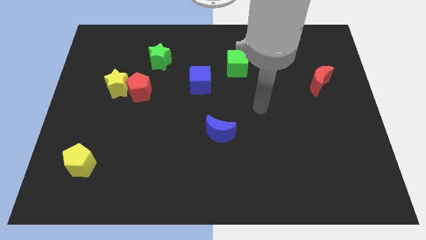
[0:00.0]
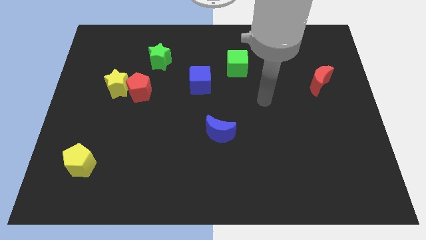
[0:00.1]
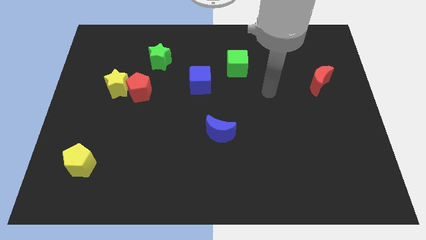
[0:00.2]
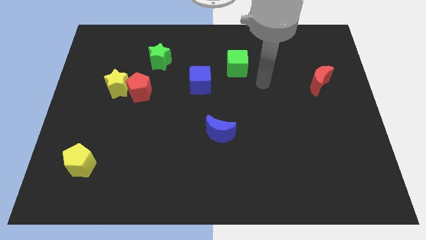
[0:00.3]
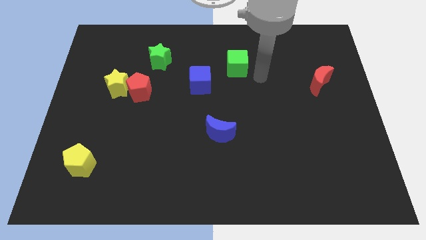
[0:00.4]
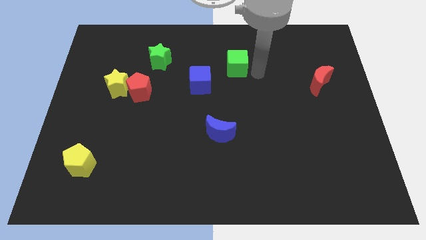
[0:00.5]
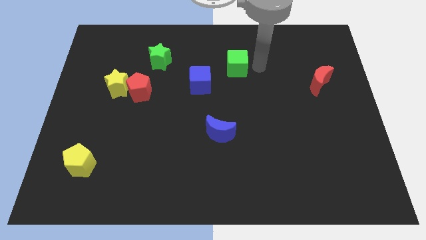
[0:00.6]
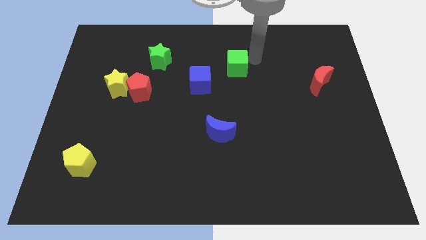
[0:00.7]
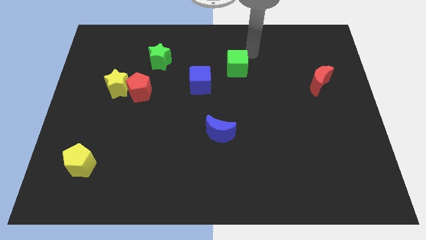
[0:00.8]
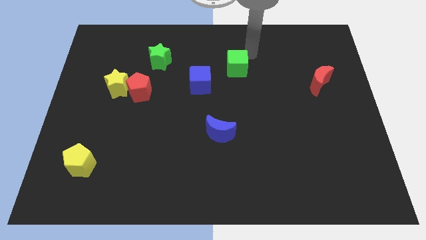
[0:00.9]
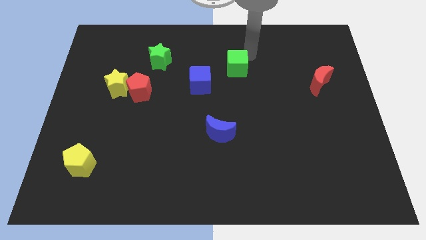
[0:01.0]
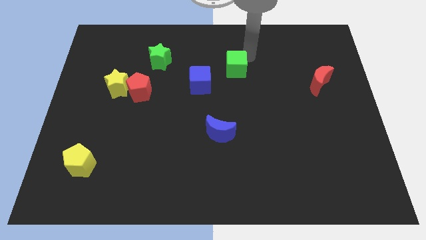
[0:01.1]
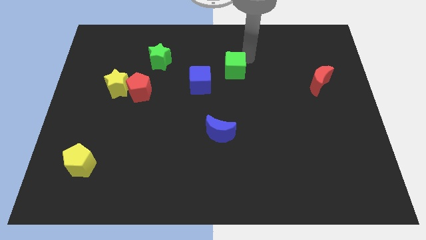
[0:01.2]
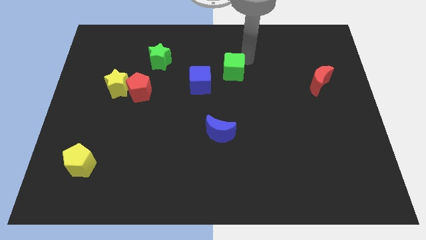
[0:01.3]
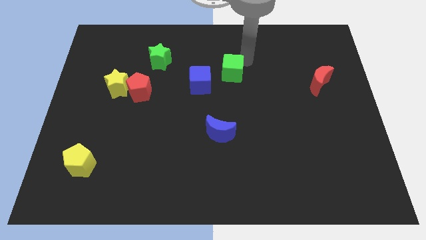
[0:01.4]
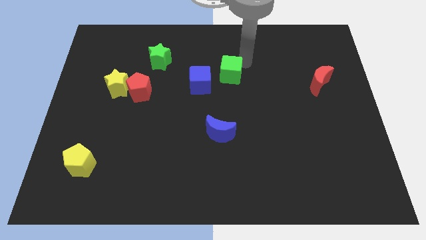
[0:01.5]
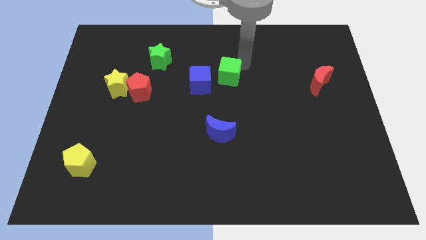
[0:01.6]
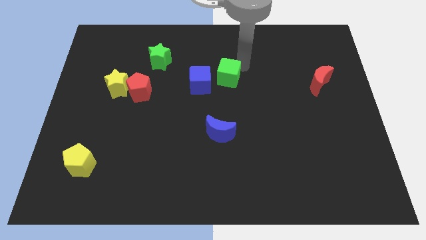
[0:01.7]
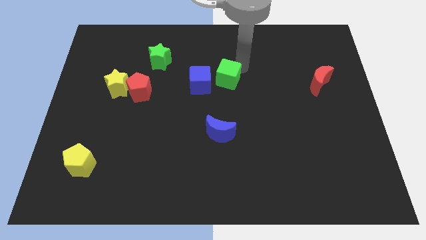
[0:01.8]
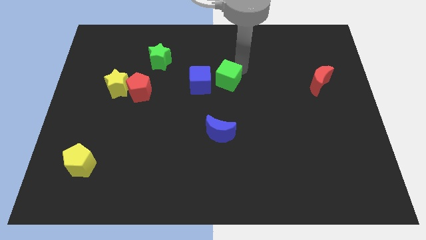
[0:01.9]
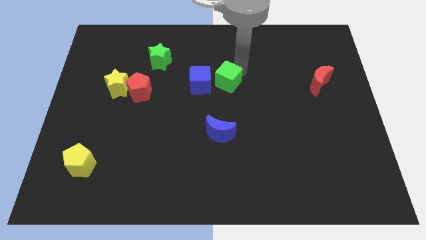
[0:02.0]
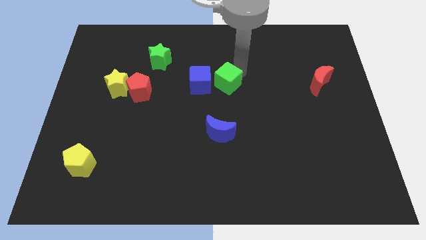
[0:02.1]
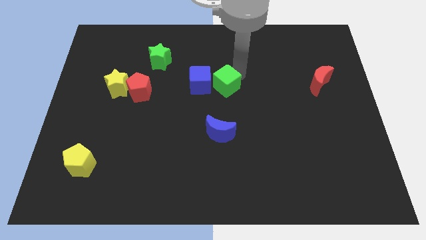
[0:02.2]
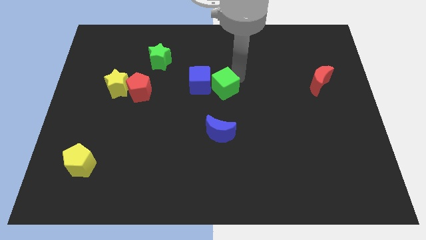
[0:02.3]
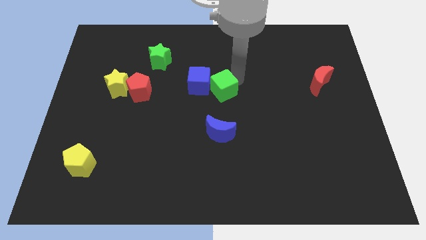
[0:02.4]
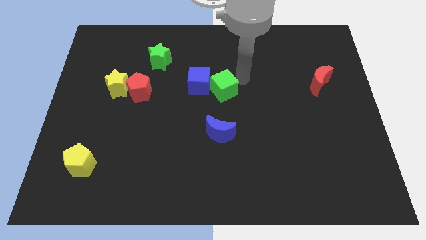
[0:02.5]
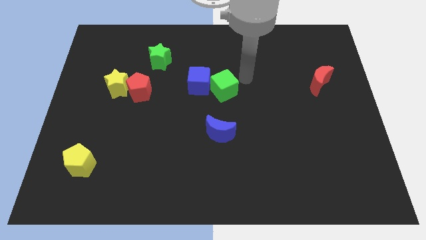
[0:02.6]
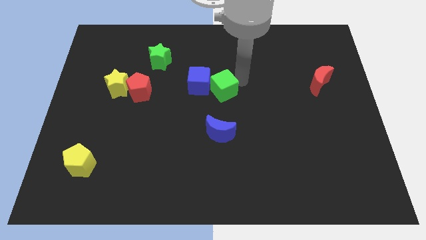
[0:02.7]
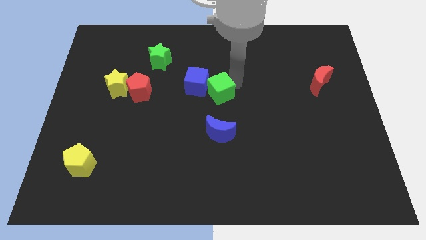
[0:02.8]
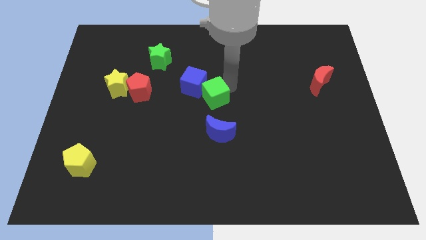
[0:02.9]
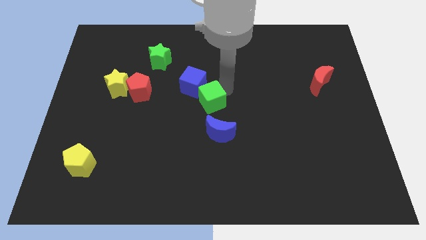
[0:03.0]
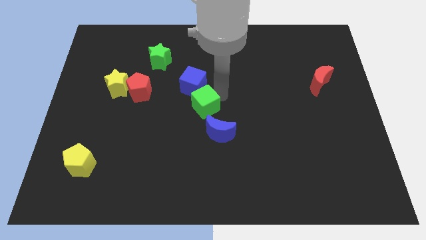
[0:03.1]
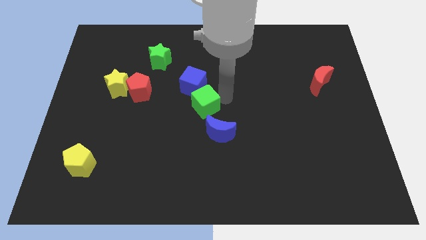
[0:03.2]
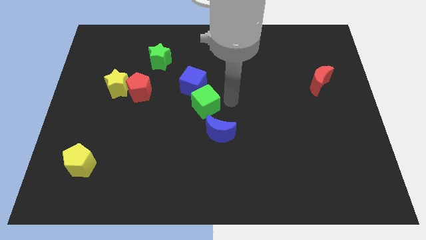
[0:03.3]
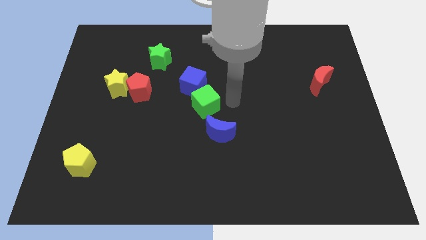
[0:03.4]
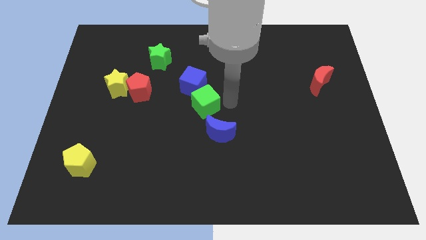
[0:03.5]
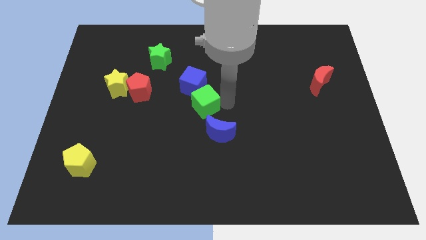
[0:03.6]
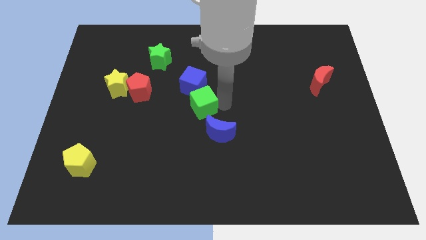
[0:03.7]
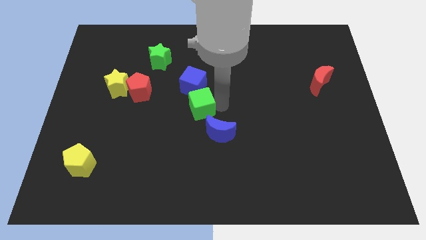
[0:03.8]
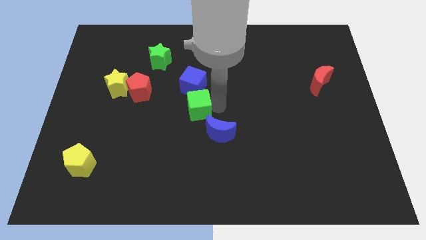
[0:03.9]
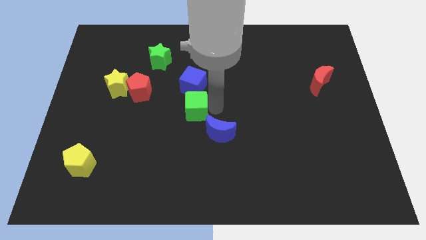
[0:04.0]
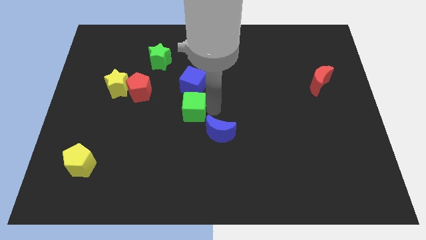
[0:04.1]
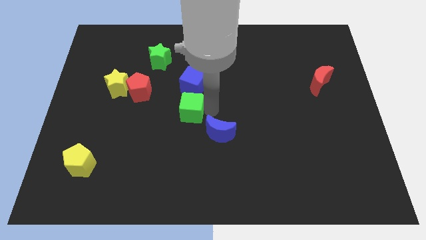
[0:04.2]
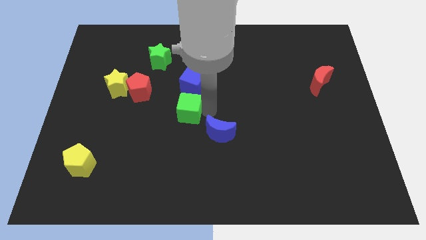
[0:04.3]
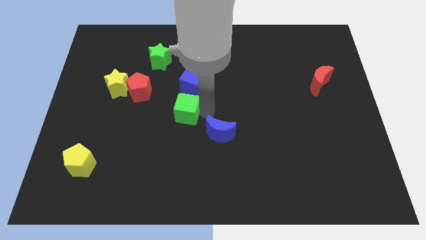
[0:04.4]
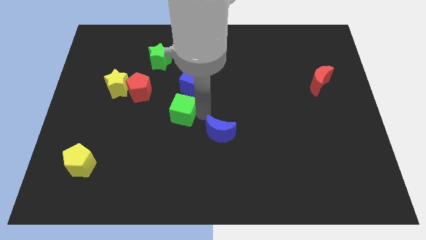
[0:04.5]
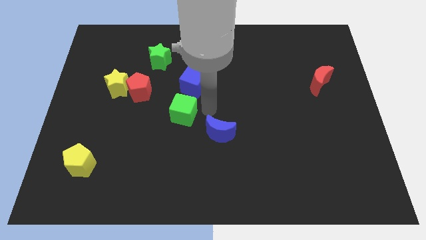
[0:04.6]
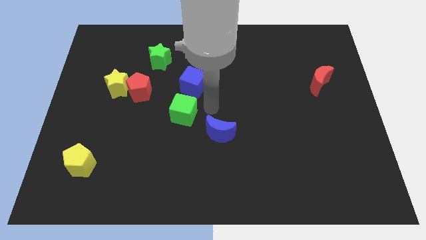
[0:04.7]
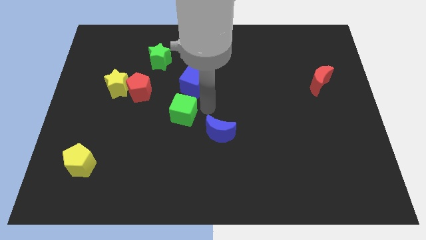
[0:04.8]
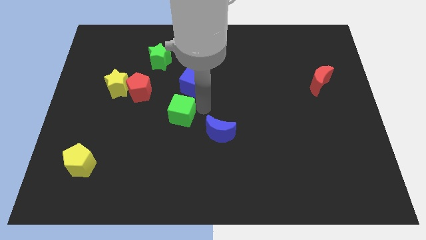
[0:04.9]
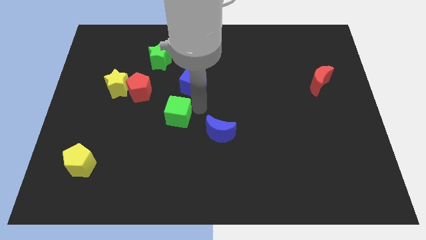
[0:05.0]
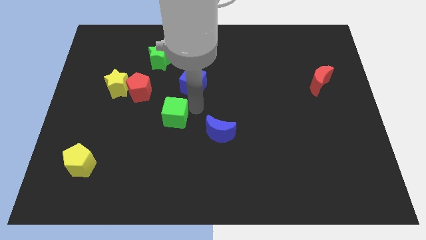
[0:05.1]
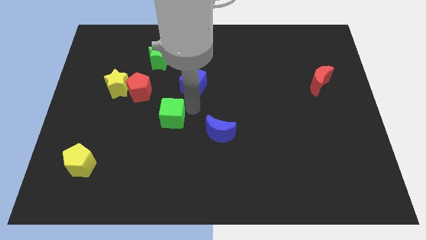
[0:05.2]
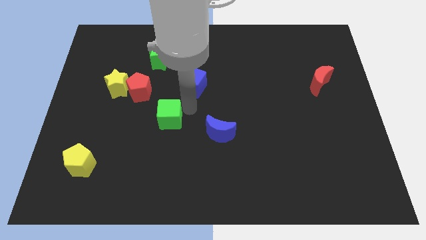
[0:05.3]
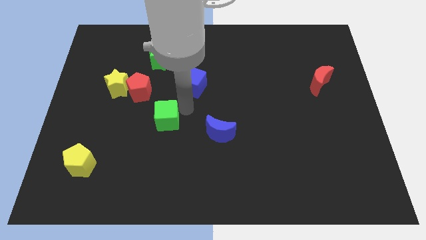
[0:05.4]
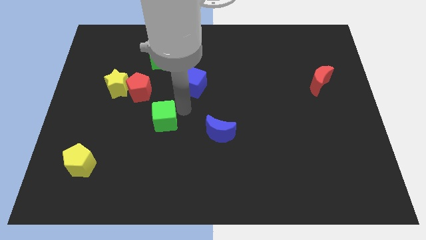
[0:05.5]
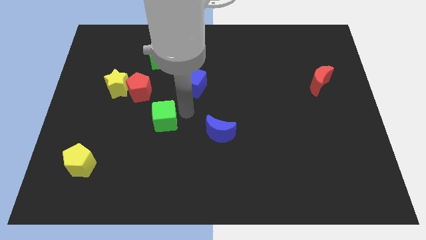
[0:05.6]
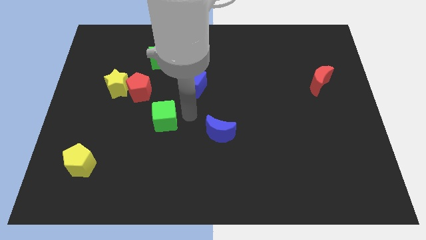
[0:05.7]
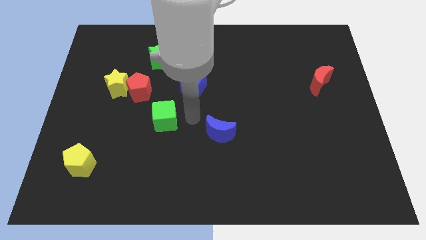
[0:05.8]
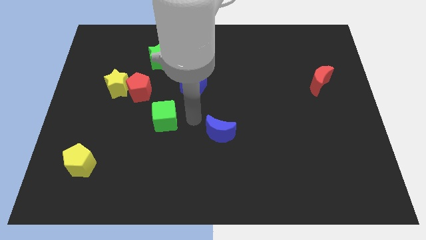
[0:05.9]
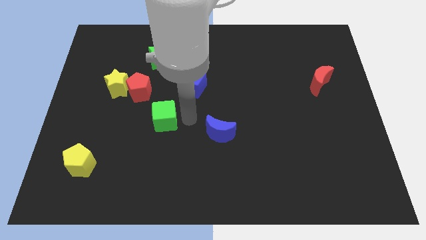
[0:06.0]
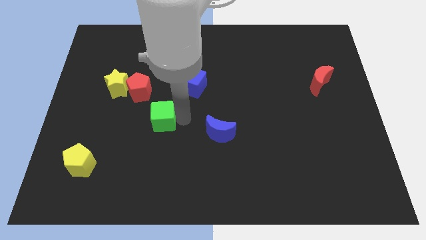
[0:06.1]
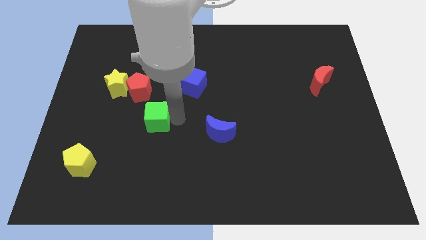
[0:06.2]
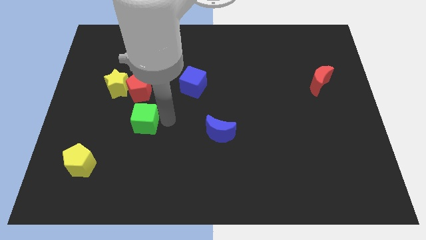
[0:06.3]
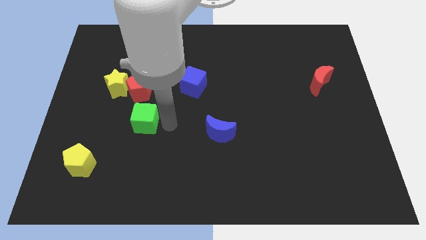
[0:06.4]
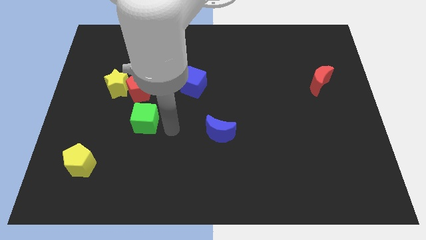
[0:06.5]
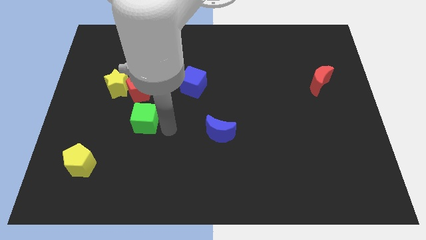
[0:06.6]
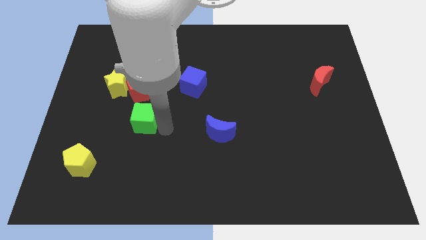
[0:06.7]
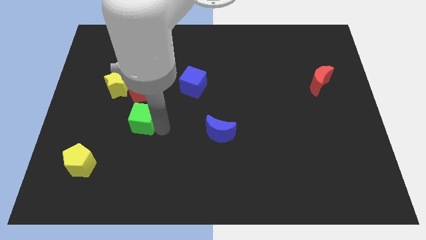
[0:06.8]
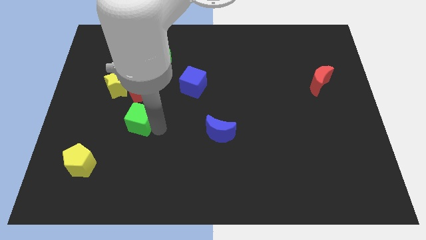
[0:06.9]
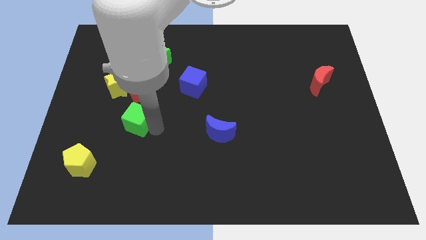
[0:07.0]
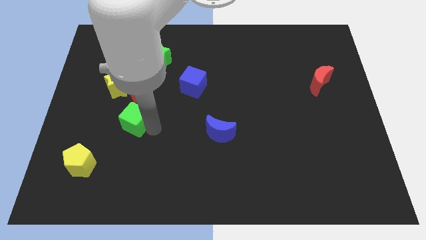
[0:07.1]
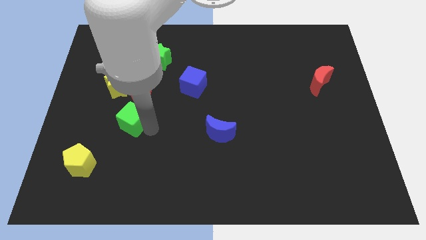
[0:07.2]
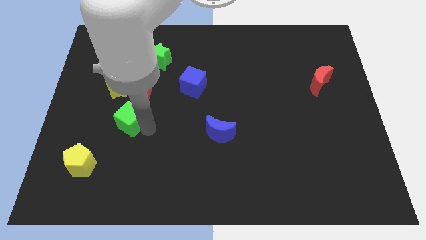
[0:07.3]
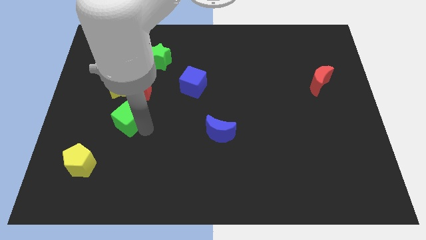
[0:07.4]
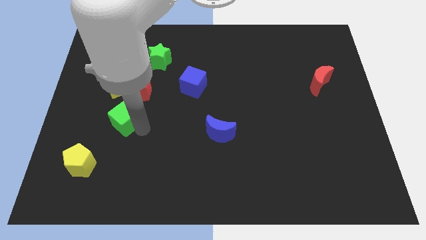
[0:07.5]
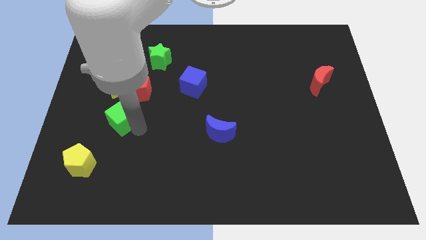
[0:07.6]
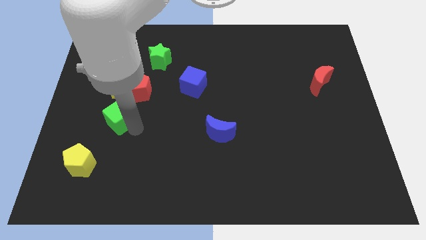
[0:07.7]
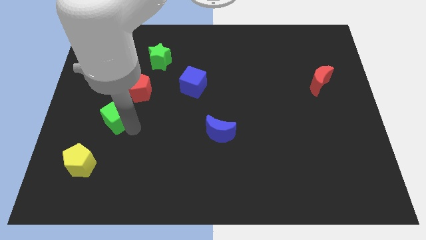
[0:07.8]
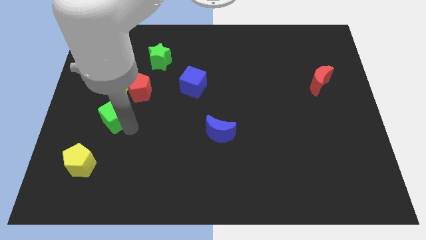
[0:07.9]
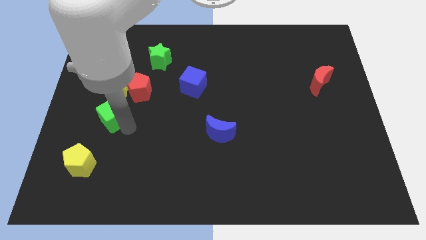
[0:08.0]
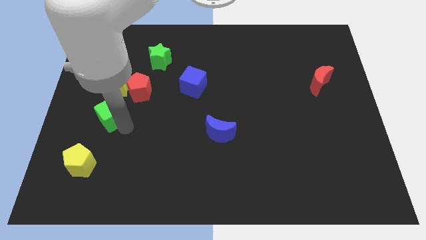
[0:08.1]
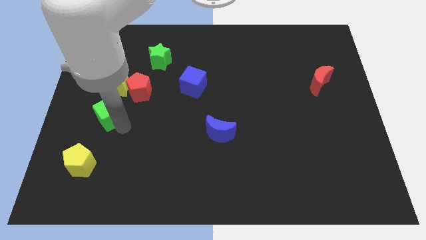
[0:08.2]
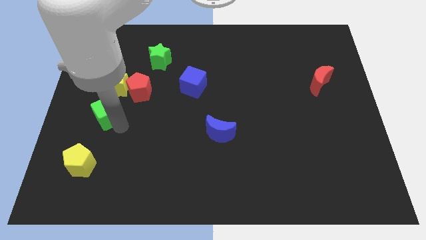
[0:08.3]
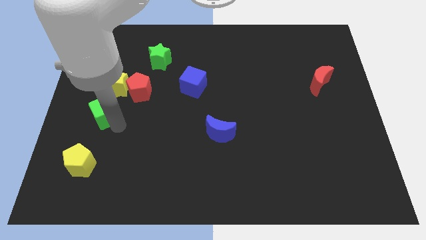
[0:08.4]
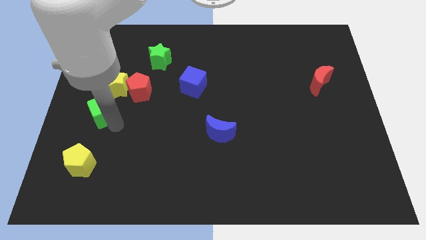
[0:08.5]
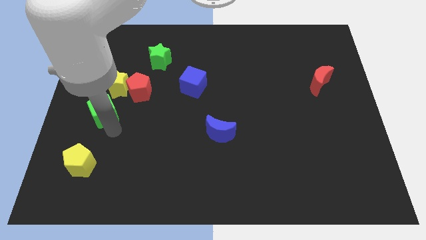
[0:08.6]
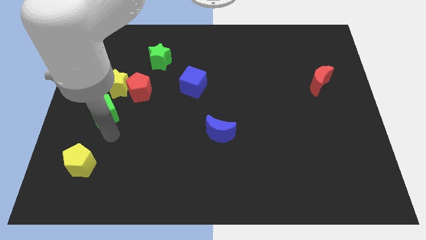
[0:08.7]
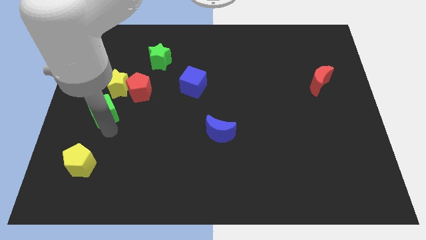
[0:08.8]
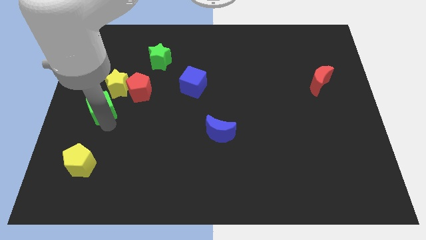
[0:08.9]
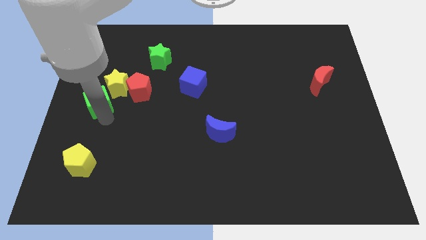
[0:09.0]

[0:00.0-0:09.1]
push the green cube to the left side of the red pentagon
